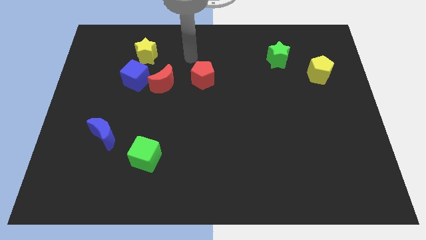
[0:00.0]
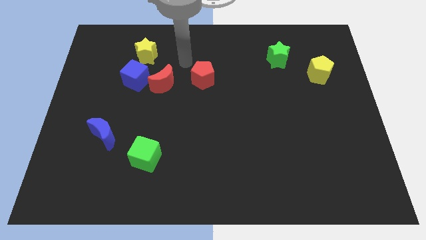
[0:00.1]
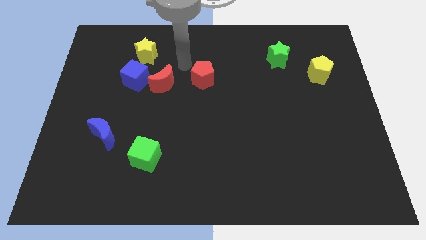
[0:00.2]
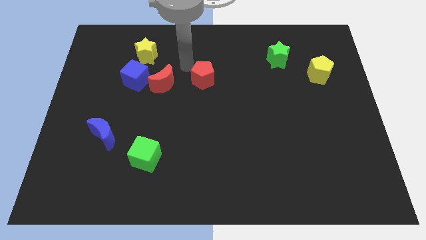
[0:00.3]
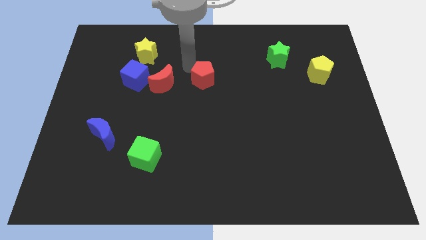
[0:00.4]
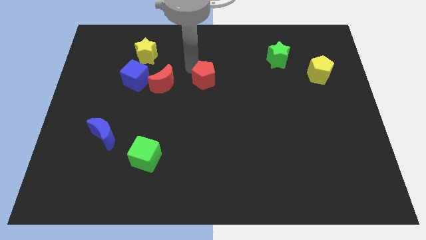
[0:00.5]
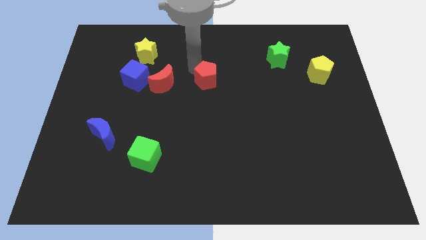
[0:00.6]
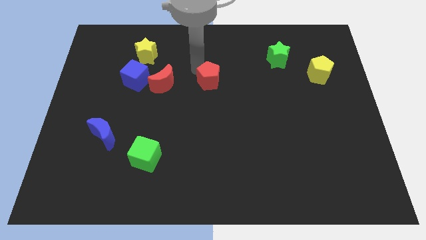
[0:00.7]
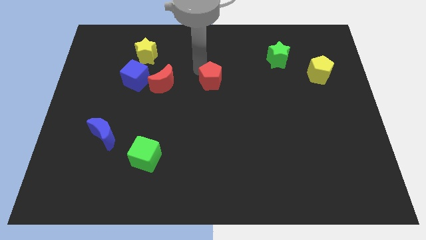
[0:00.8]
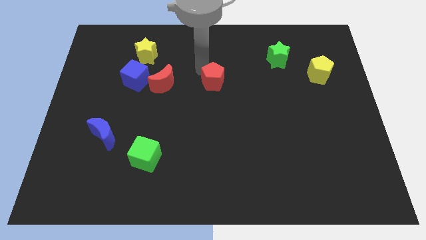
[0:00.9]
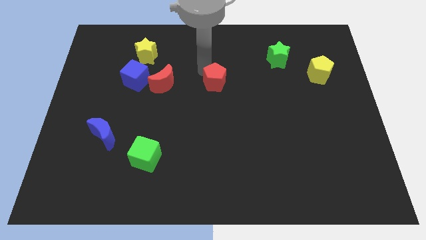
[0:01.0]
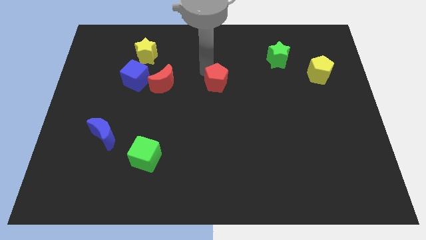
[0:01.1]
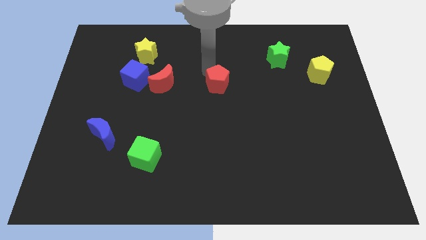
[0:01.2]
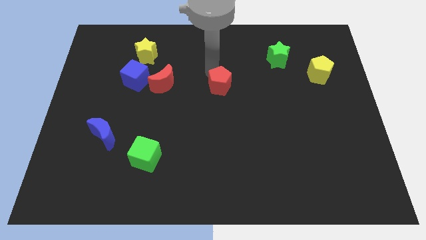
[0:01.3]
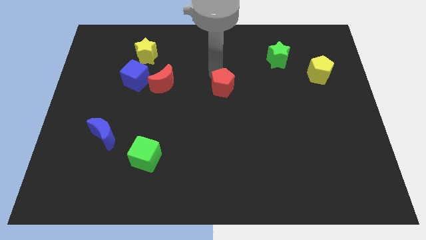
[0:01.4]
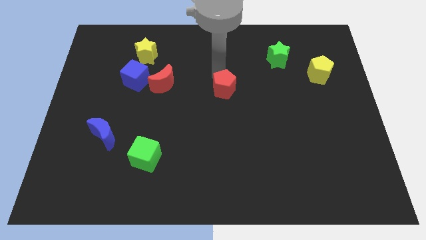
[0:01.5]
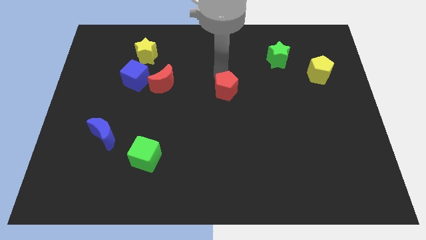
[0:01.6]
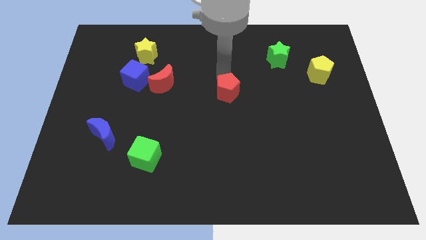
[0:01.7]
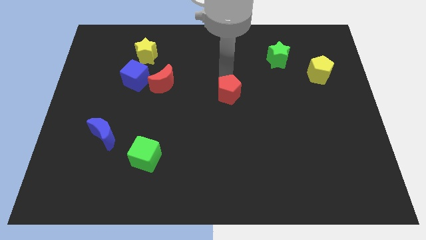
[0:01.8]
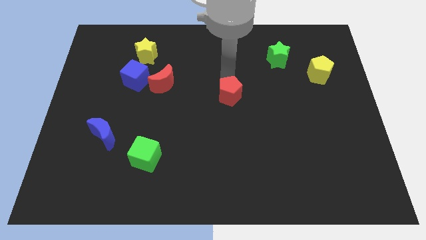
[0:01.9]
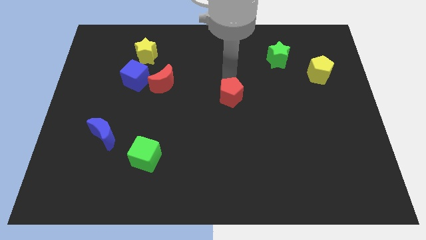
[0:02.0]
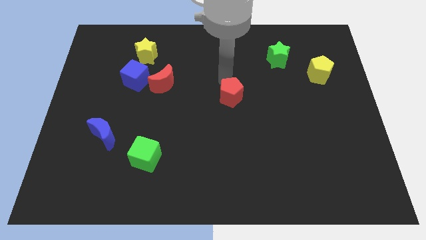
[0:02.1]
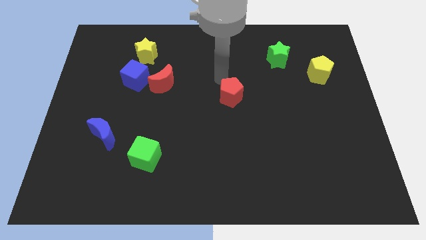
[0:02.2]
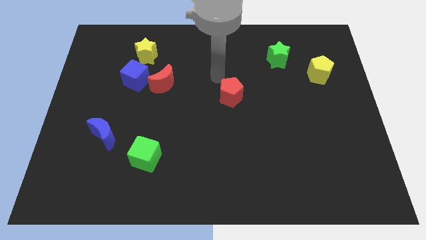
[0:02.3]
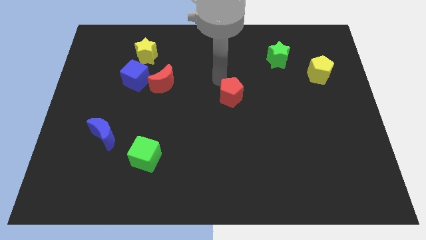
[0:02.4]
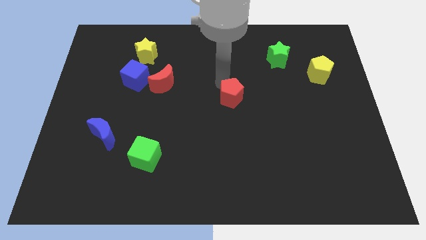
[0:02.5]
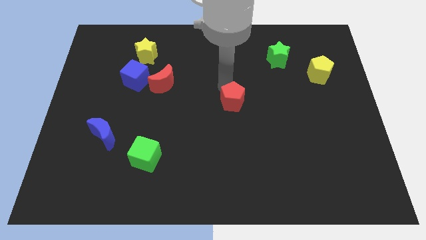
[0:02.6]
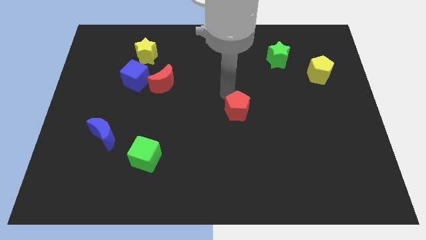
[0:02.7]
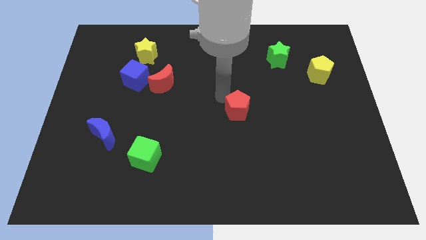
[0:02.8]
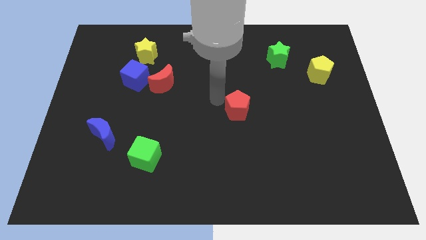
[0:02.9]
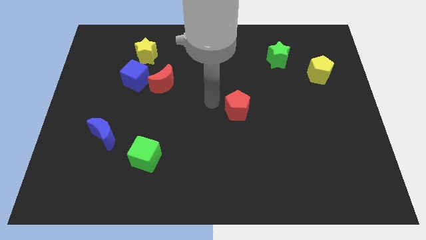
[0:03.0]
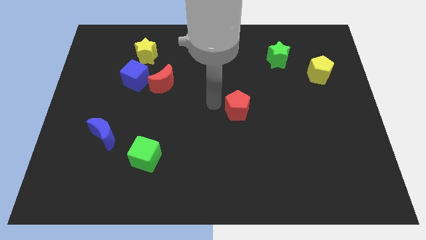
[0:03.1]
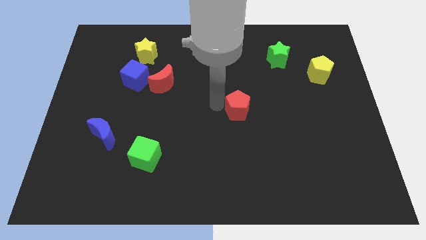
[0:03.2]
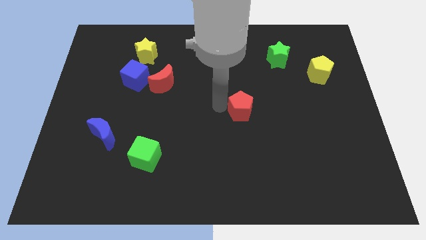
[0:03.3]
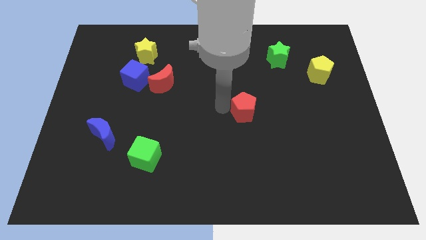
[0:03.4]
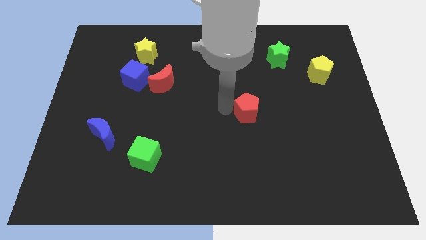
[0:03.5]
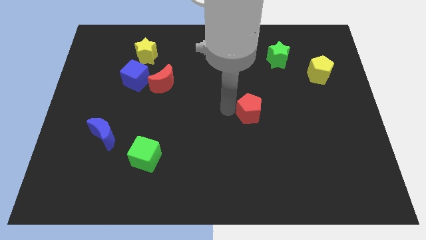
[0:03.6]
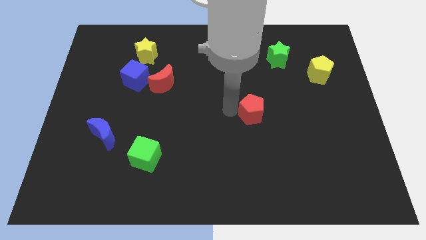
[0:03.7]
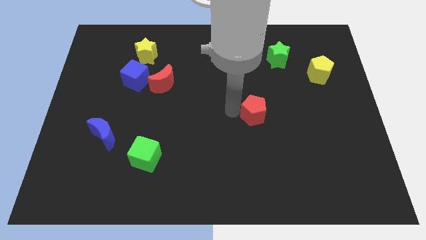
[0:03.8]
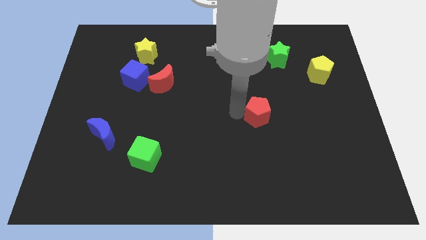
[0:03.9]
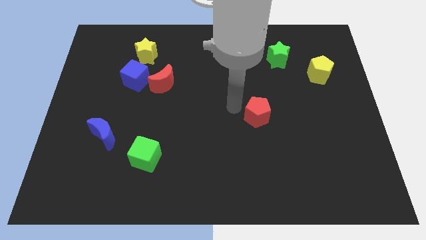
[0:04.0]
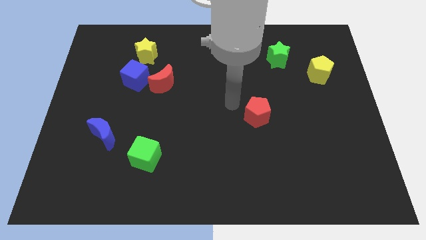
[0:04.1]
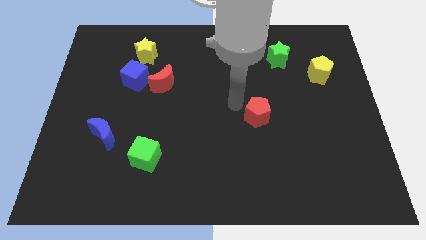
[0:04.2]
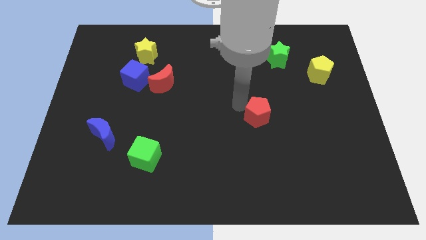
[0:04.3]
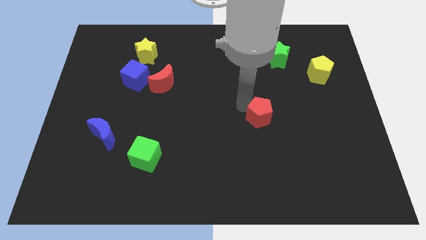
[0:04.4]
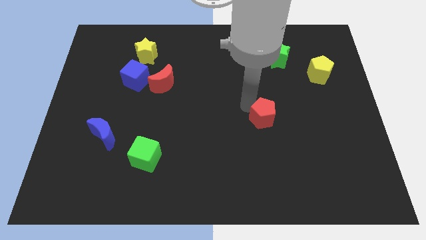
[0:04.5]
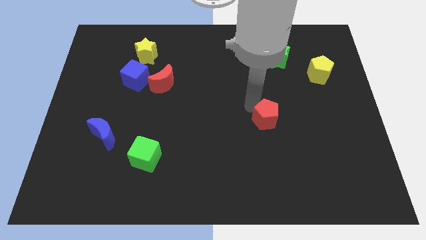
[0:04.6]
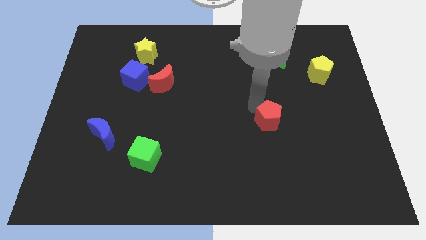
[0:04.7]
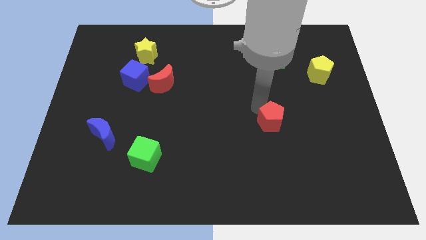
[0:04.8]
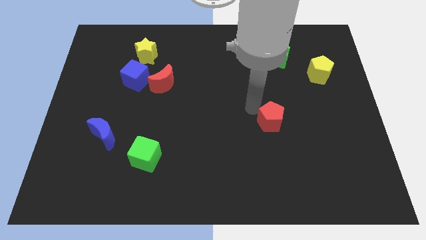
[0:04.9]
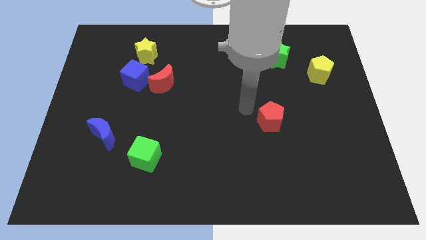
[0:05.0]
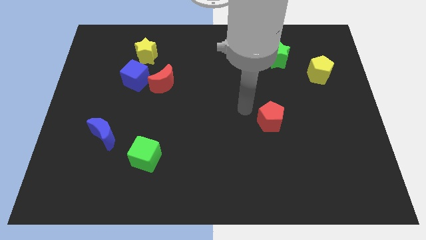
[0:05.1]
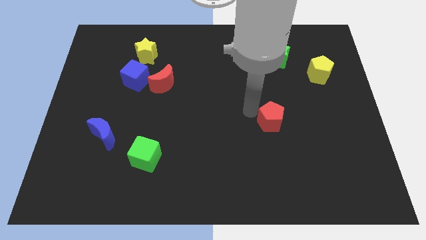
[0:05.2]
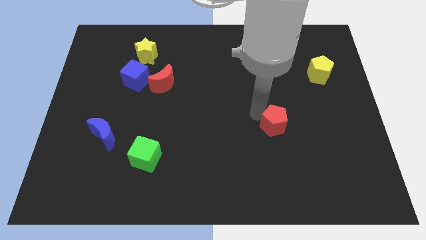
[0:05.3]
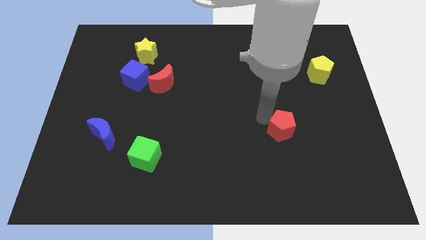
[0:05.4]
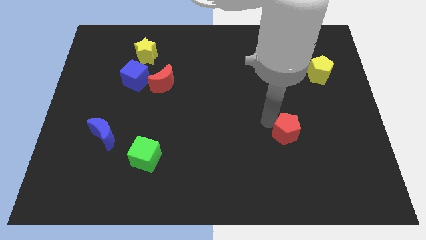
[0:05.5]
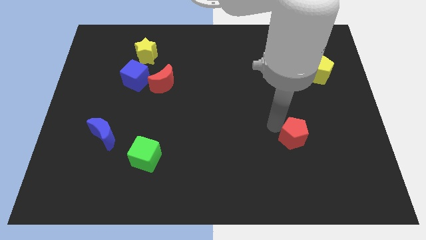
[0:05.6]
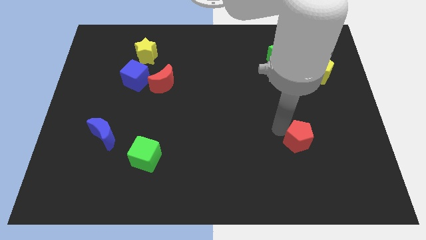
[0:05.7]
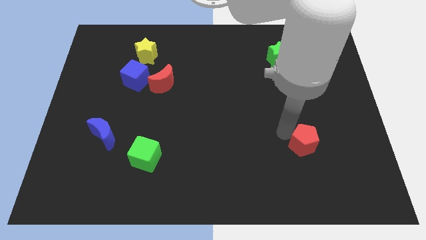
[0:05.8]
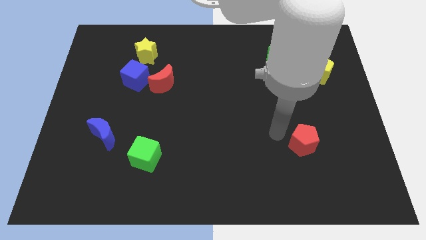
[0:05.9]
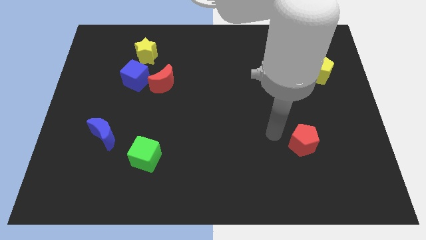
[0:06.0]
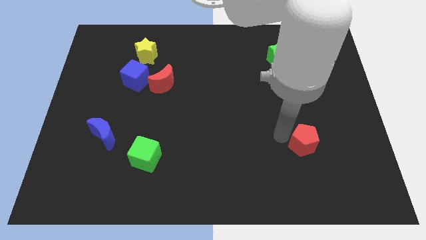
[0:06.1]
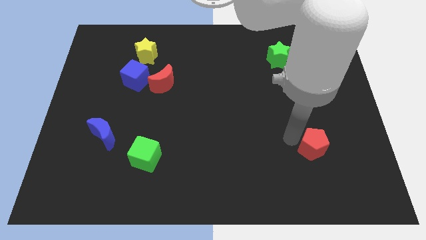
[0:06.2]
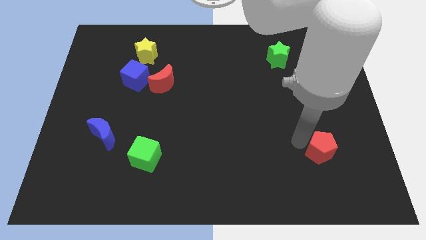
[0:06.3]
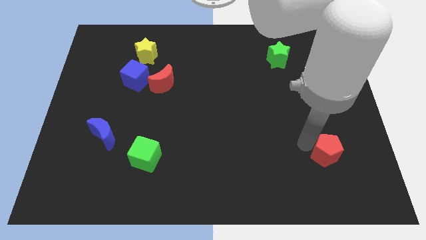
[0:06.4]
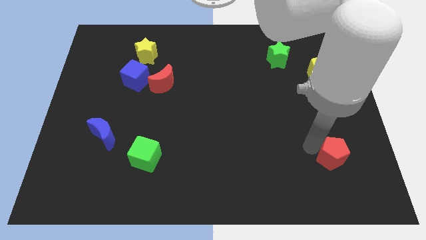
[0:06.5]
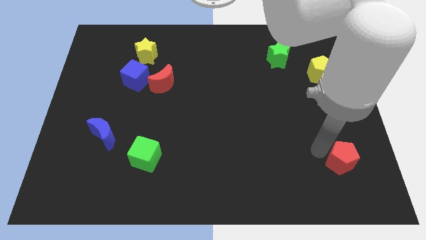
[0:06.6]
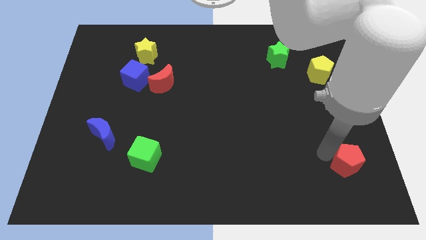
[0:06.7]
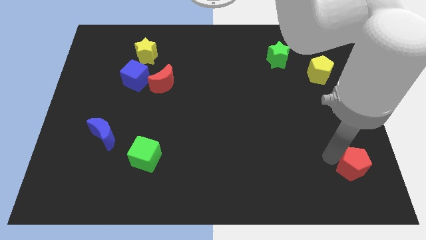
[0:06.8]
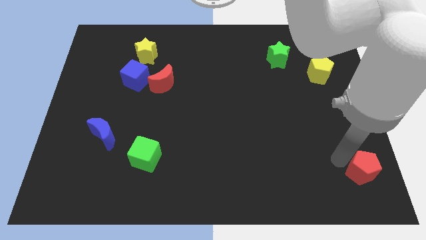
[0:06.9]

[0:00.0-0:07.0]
slide the red pentagon to the lower right corner
